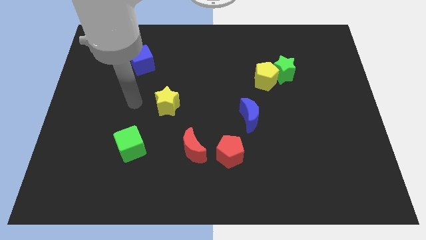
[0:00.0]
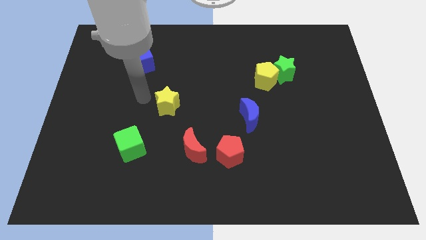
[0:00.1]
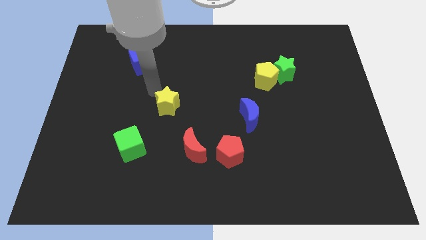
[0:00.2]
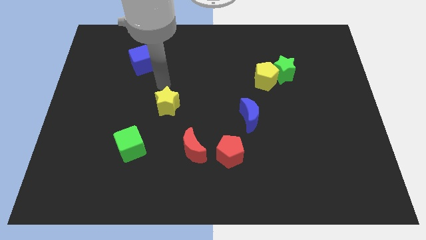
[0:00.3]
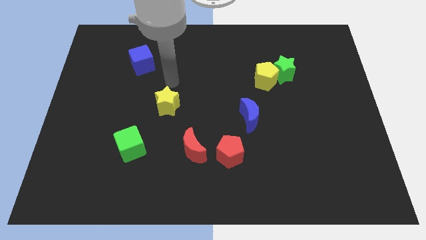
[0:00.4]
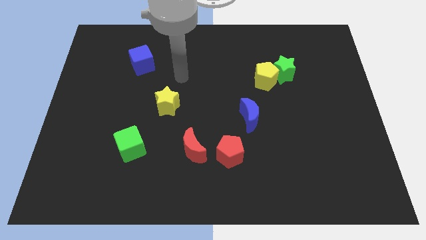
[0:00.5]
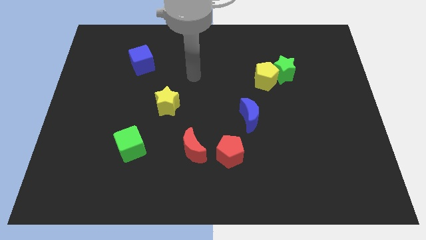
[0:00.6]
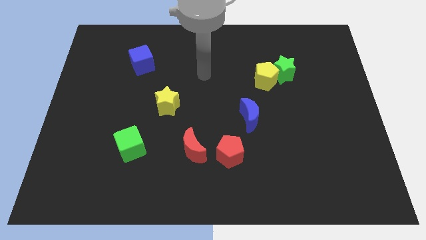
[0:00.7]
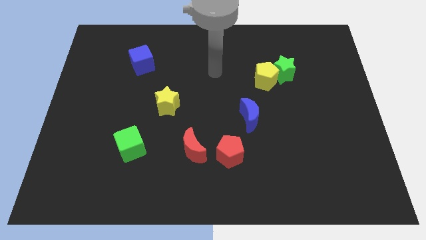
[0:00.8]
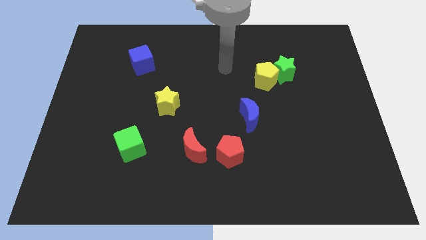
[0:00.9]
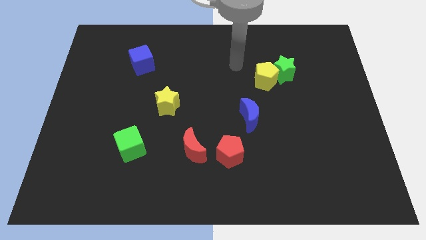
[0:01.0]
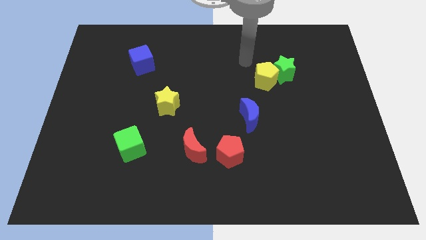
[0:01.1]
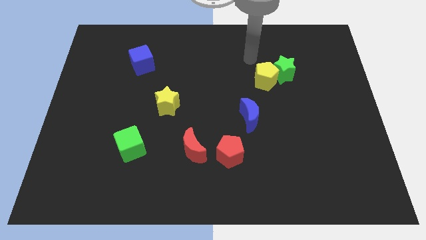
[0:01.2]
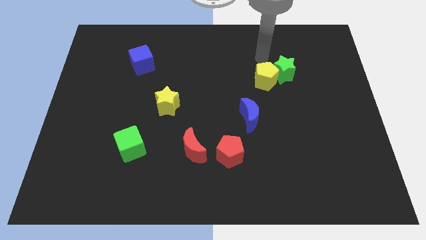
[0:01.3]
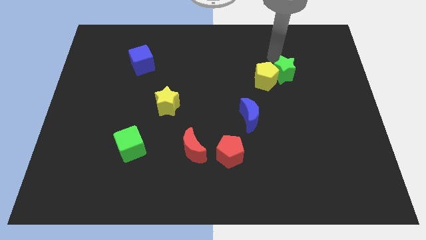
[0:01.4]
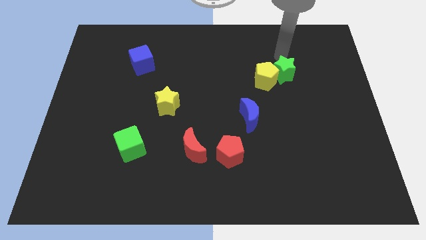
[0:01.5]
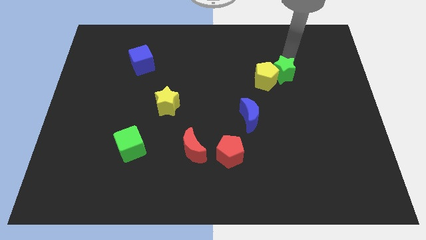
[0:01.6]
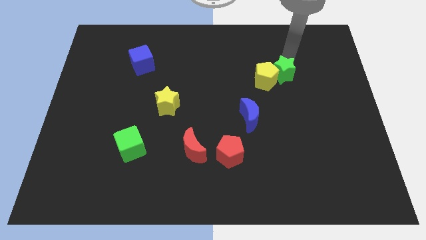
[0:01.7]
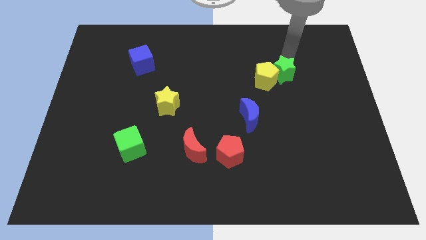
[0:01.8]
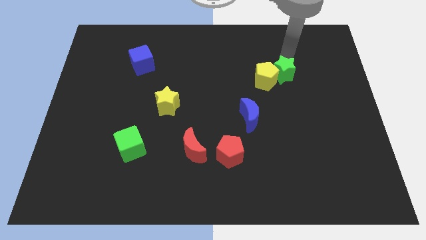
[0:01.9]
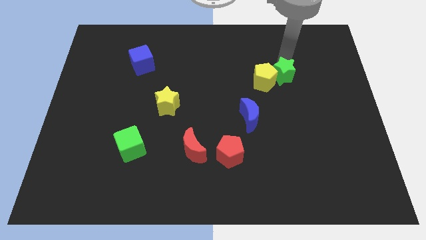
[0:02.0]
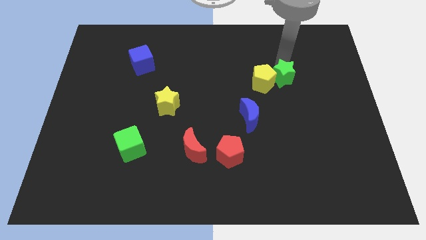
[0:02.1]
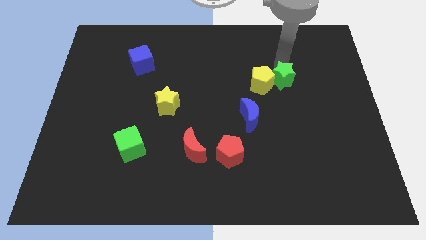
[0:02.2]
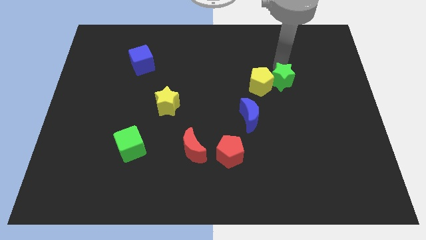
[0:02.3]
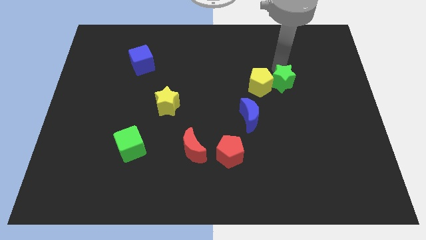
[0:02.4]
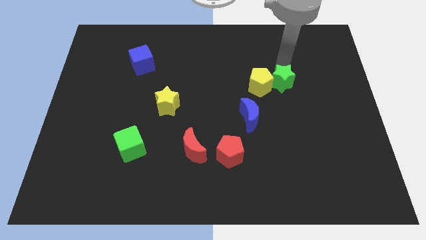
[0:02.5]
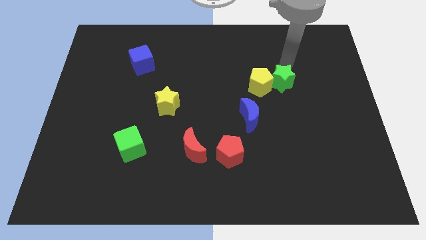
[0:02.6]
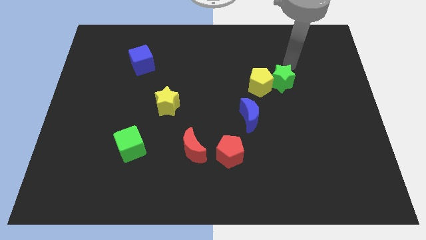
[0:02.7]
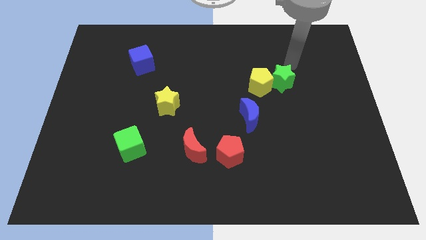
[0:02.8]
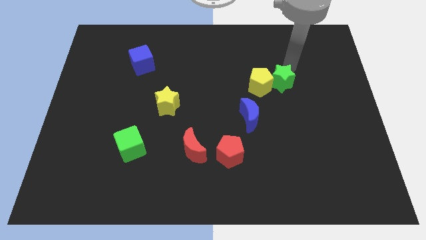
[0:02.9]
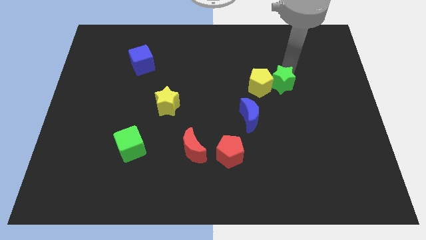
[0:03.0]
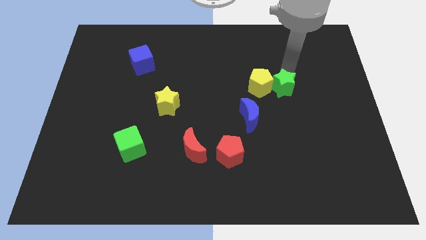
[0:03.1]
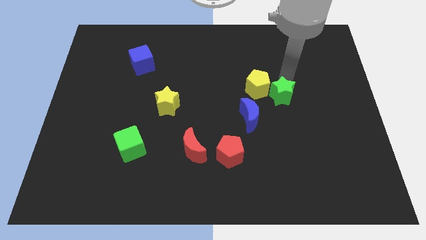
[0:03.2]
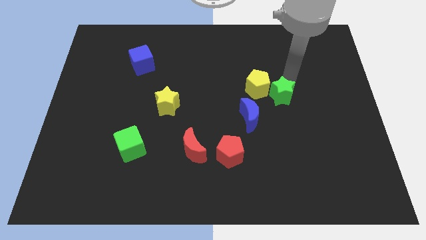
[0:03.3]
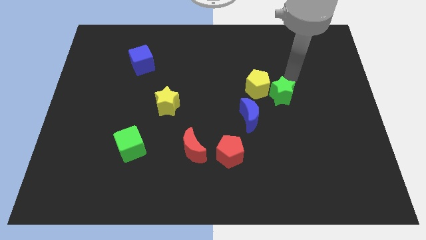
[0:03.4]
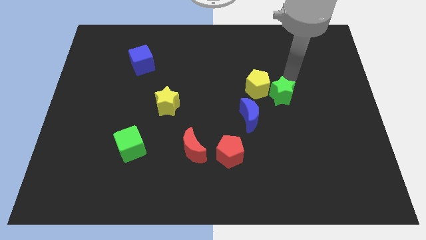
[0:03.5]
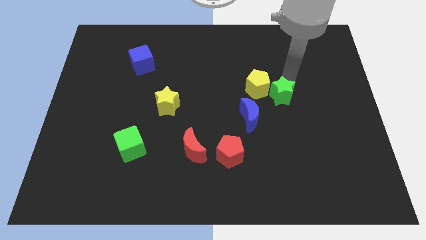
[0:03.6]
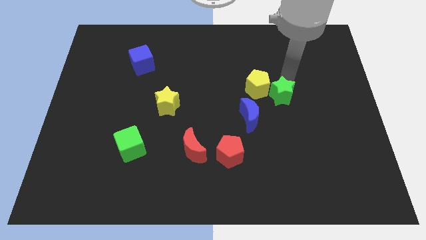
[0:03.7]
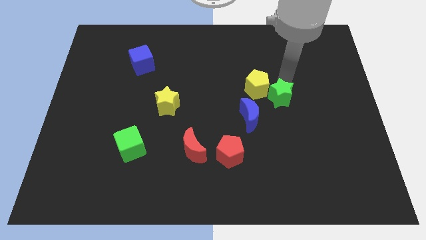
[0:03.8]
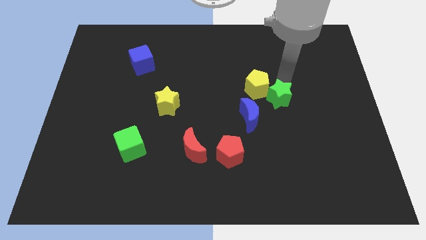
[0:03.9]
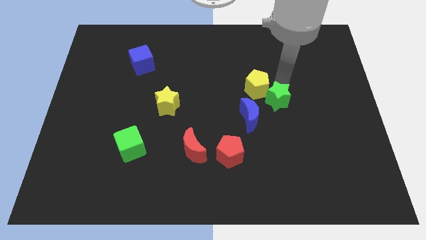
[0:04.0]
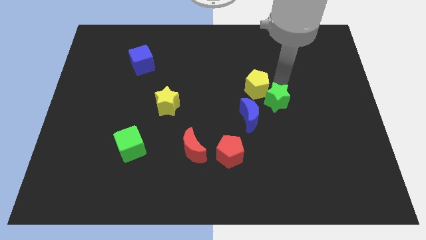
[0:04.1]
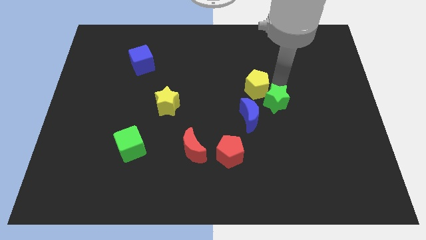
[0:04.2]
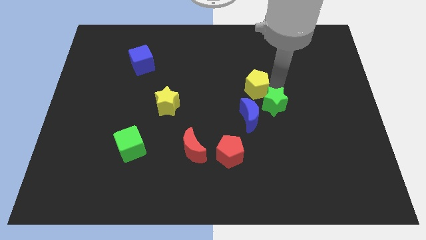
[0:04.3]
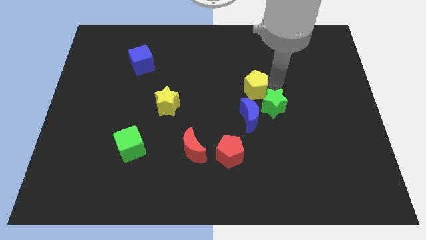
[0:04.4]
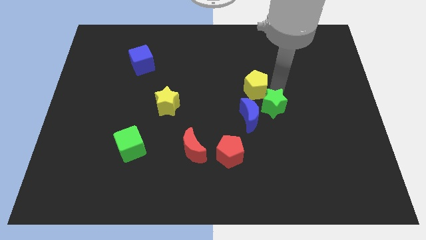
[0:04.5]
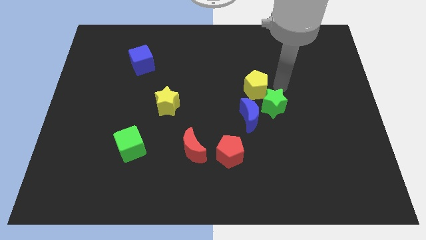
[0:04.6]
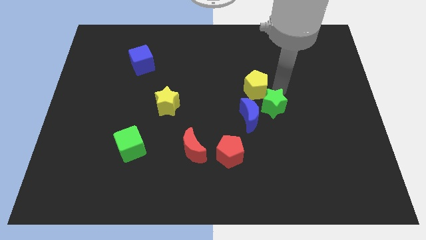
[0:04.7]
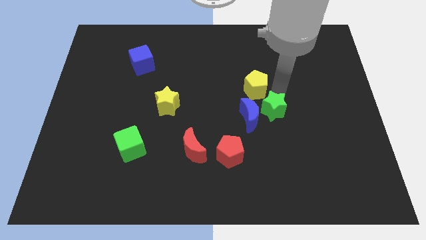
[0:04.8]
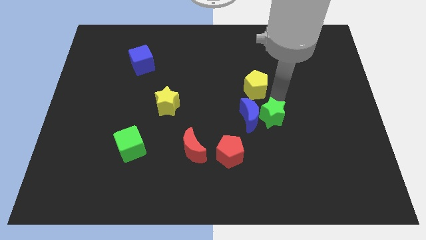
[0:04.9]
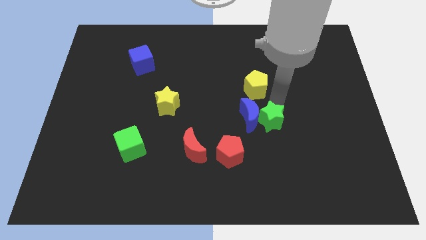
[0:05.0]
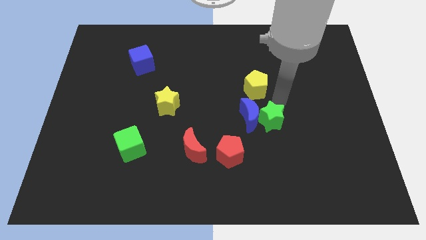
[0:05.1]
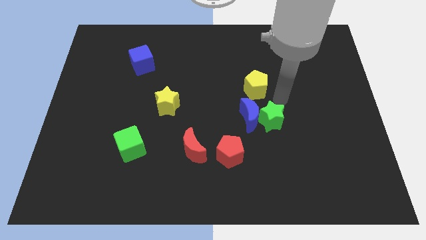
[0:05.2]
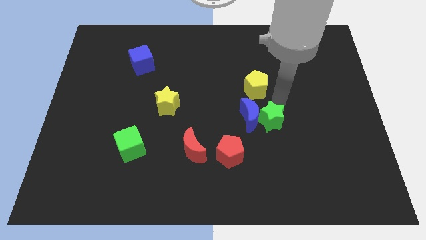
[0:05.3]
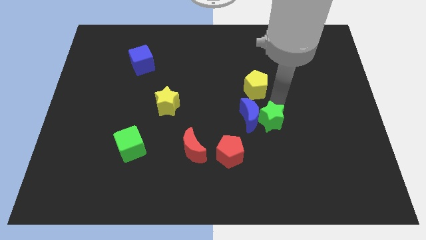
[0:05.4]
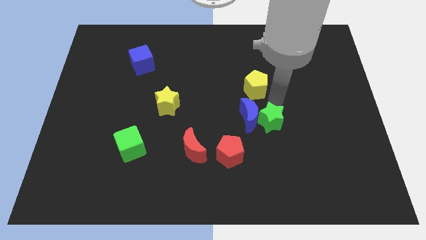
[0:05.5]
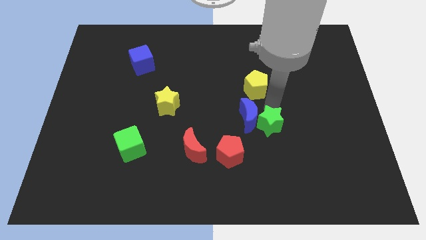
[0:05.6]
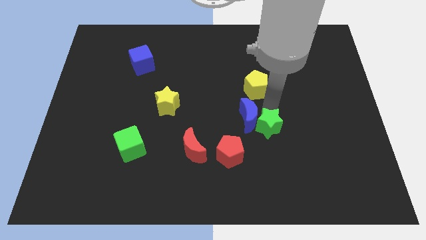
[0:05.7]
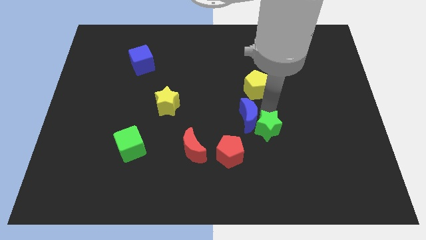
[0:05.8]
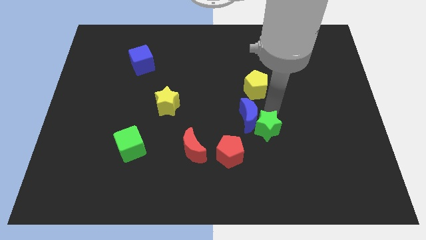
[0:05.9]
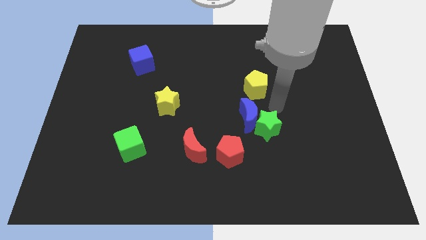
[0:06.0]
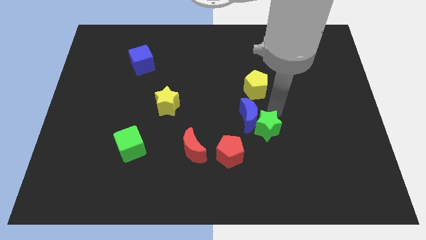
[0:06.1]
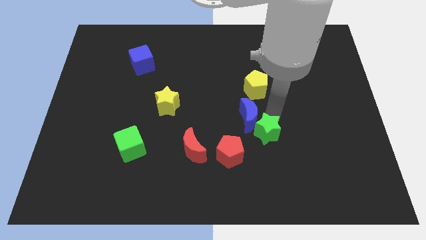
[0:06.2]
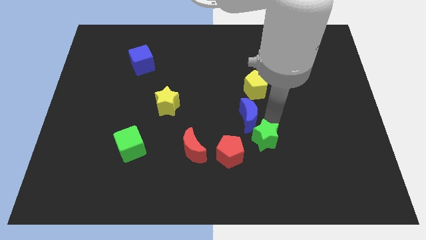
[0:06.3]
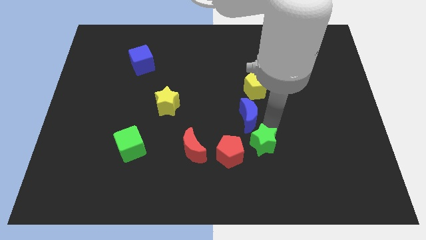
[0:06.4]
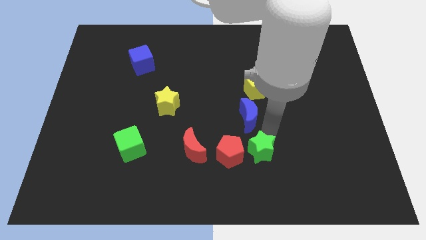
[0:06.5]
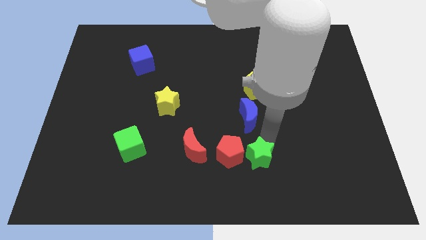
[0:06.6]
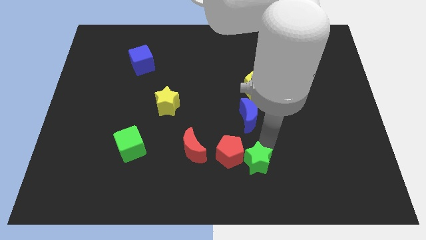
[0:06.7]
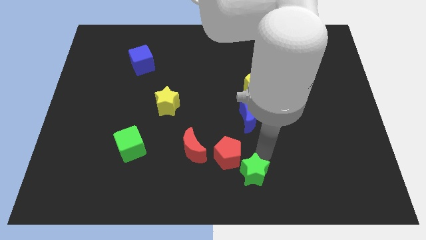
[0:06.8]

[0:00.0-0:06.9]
put the green star to the bottom

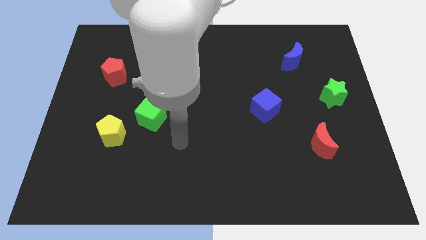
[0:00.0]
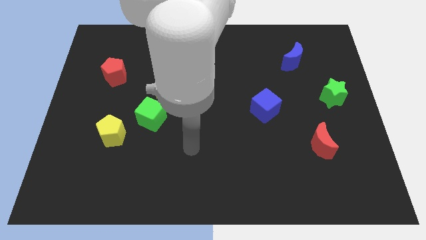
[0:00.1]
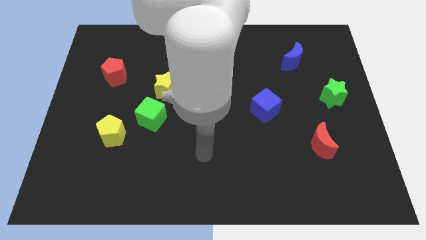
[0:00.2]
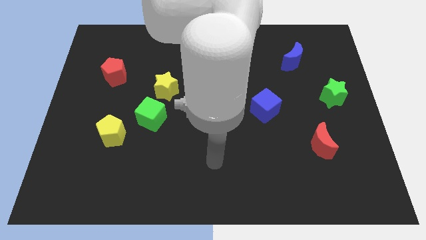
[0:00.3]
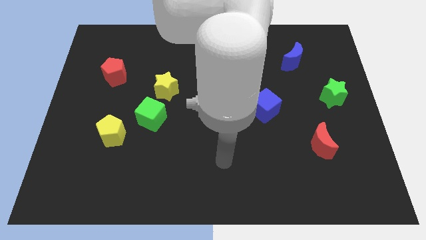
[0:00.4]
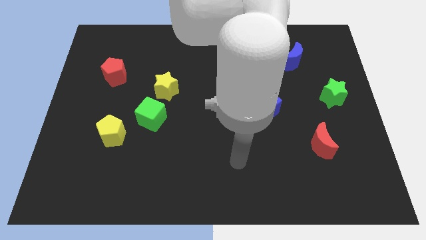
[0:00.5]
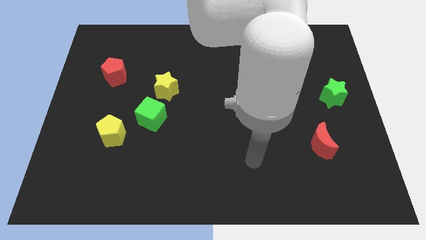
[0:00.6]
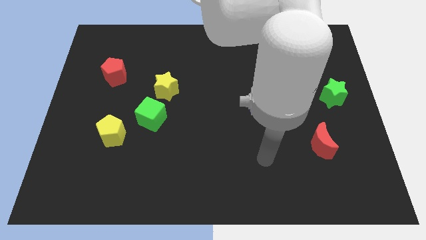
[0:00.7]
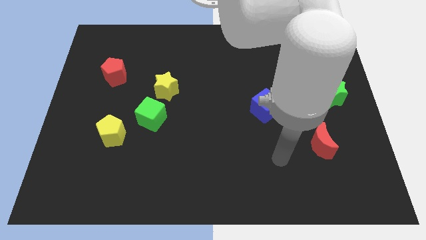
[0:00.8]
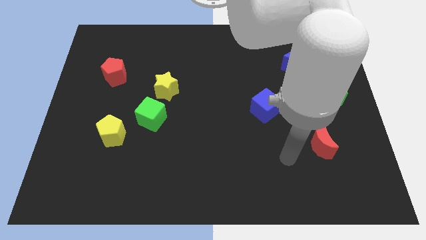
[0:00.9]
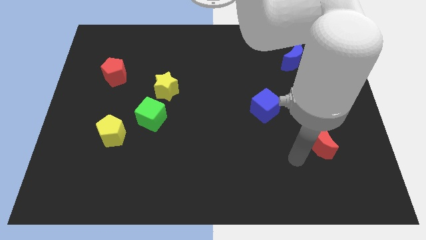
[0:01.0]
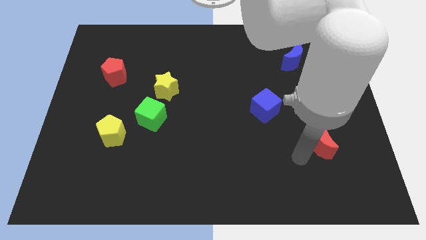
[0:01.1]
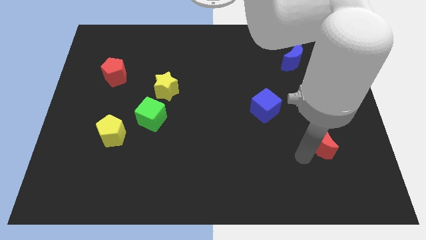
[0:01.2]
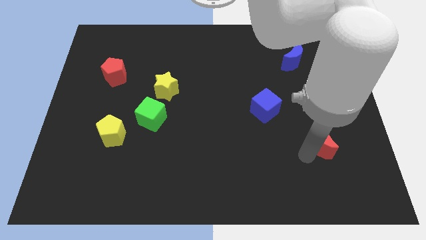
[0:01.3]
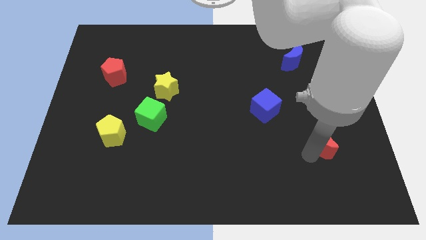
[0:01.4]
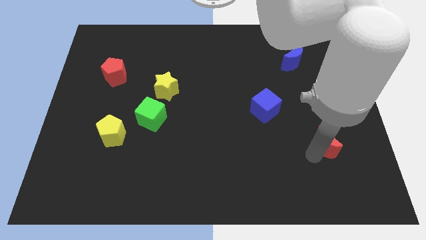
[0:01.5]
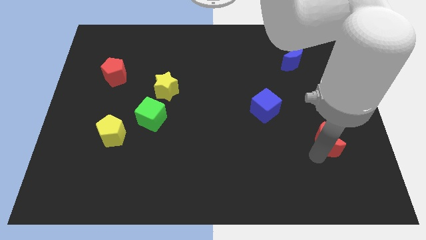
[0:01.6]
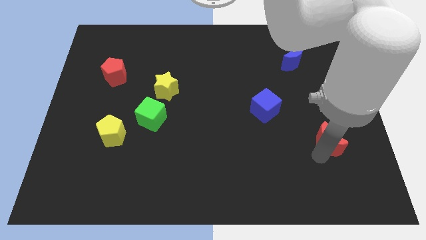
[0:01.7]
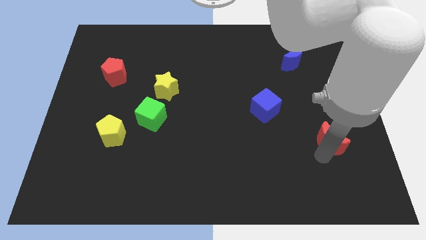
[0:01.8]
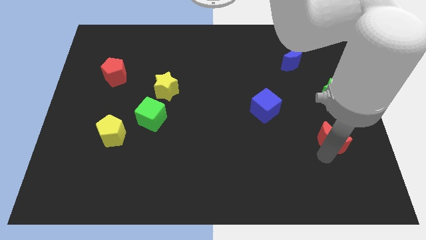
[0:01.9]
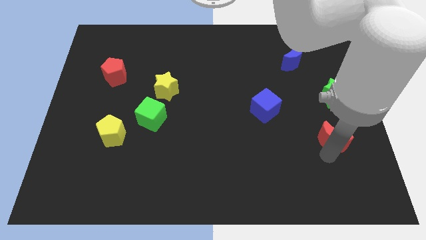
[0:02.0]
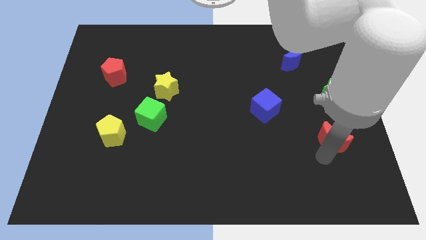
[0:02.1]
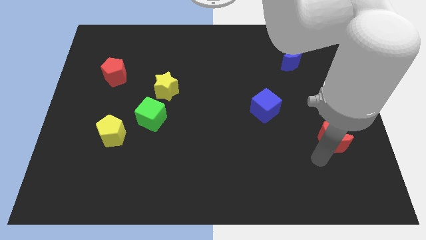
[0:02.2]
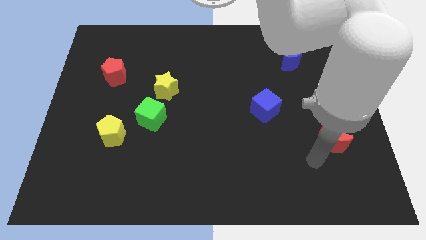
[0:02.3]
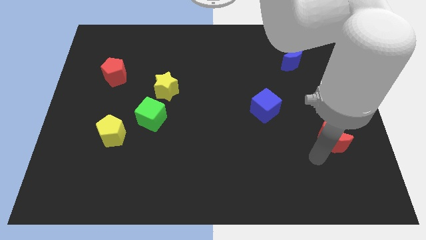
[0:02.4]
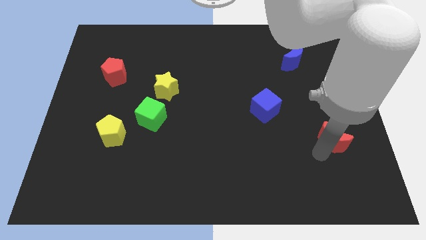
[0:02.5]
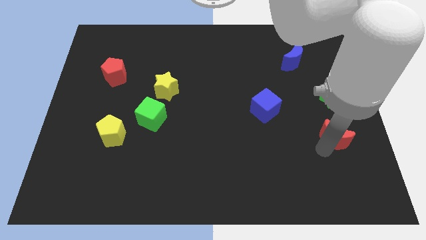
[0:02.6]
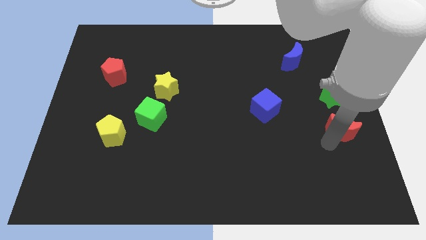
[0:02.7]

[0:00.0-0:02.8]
move the red moon to the right side of the board
